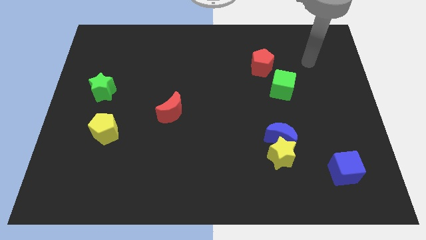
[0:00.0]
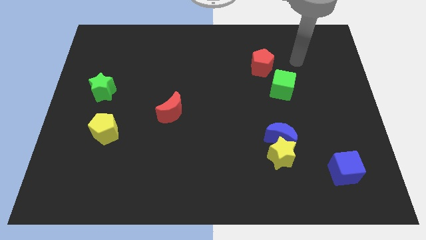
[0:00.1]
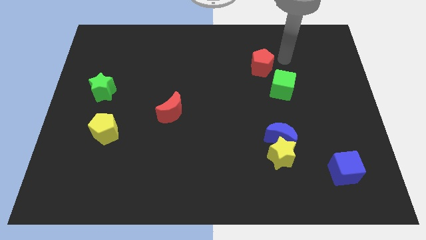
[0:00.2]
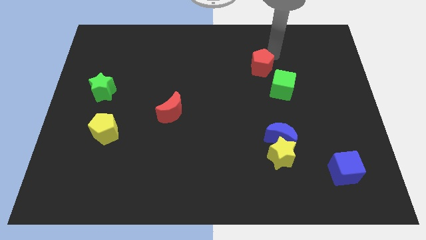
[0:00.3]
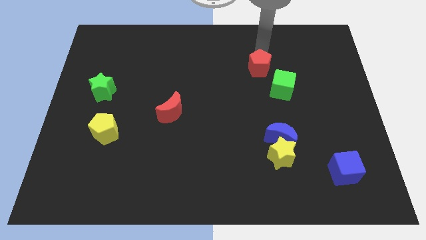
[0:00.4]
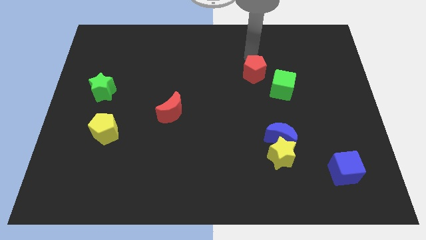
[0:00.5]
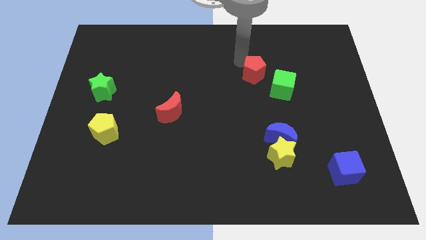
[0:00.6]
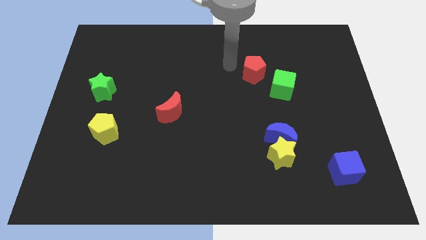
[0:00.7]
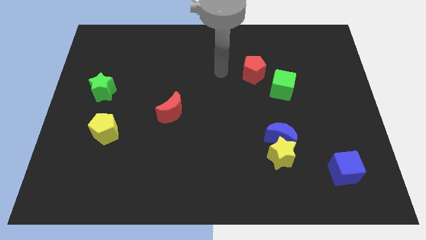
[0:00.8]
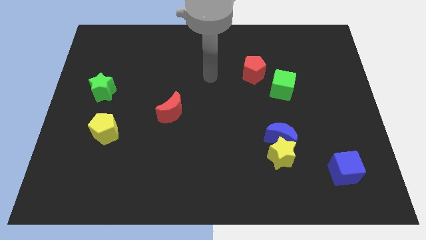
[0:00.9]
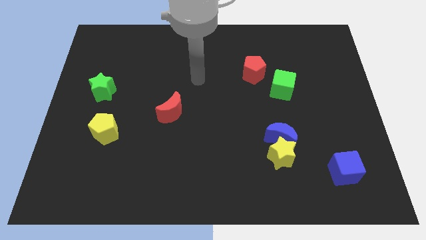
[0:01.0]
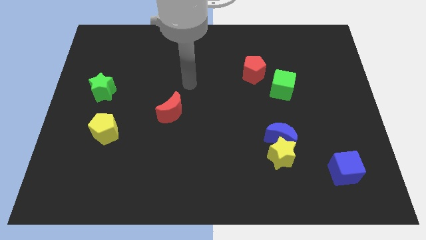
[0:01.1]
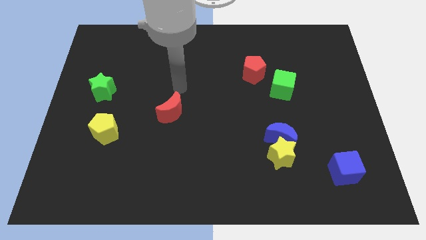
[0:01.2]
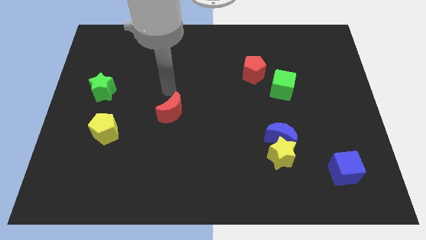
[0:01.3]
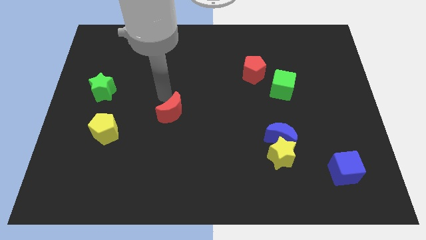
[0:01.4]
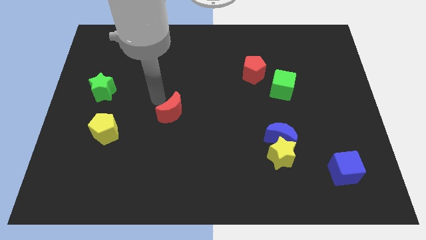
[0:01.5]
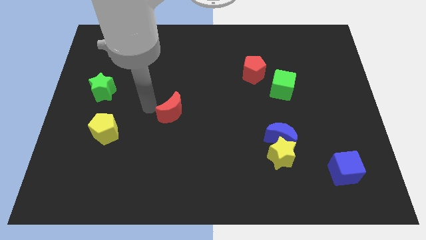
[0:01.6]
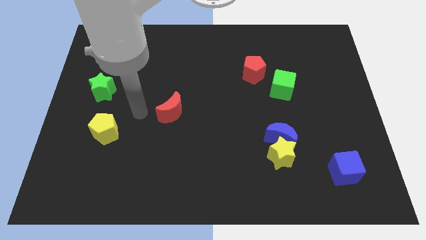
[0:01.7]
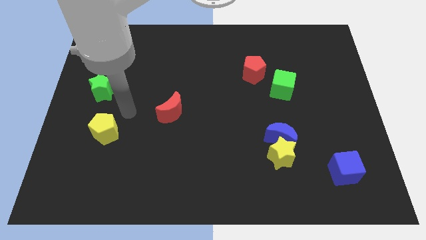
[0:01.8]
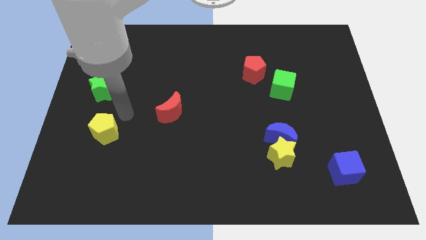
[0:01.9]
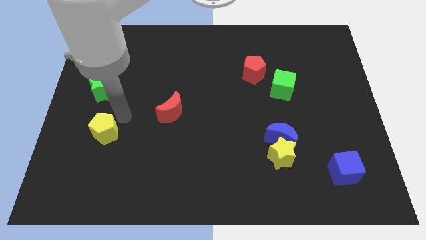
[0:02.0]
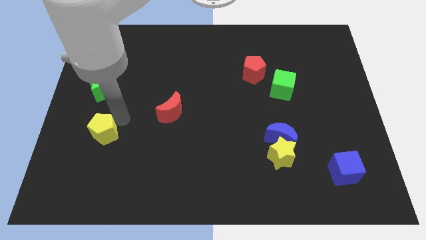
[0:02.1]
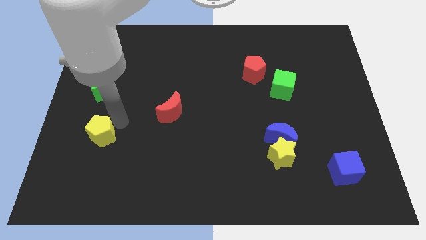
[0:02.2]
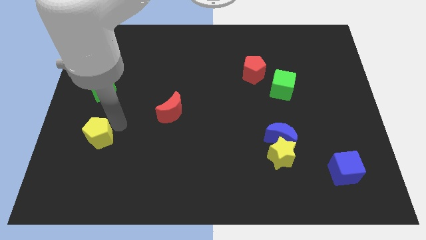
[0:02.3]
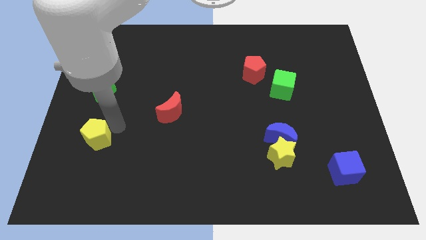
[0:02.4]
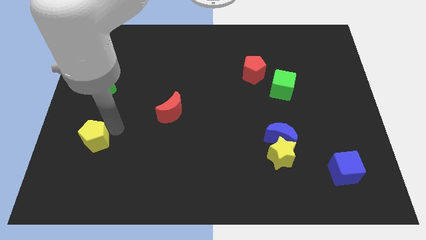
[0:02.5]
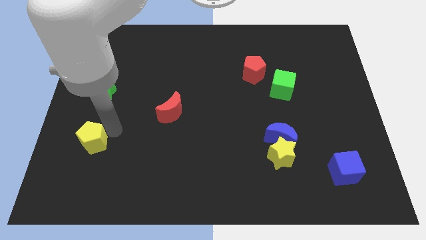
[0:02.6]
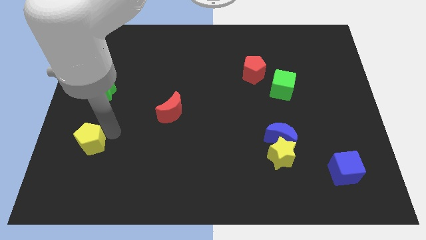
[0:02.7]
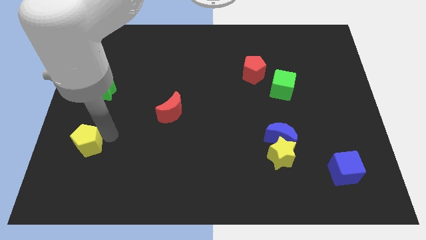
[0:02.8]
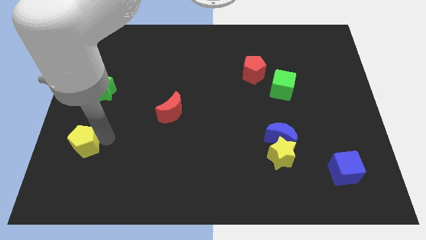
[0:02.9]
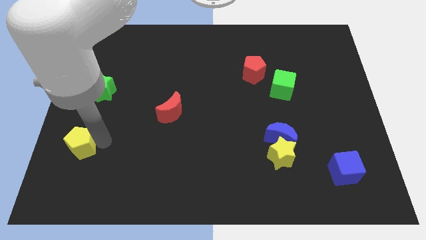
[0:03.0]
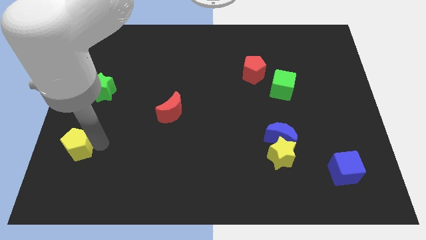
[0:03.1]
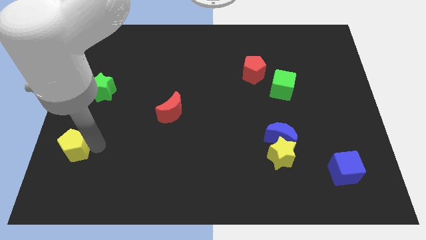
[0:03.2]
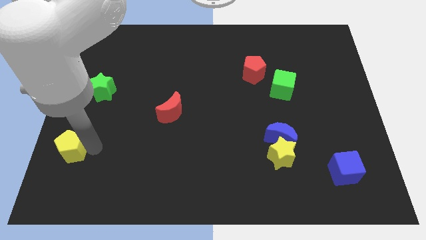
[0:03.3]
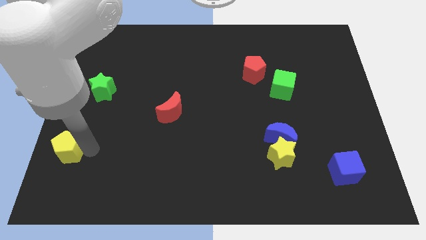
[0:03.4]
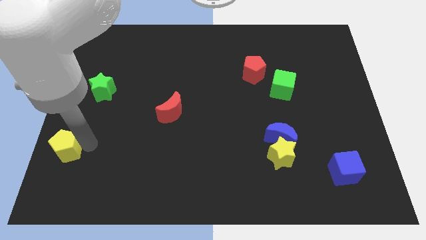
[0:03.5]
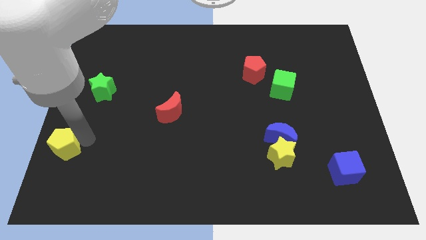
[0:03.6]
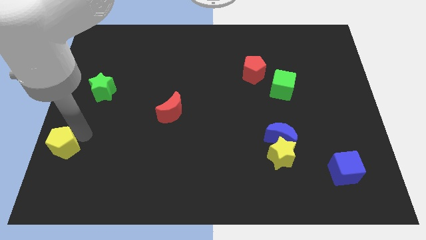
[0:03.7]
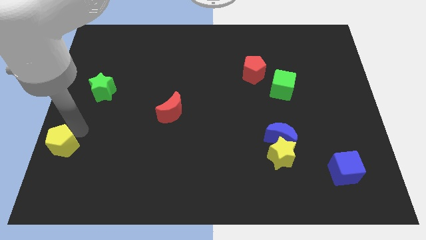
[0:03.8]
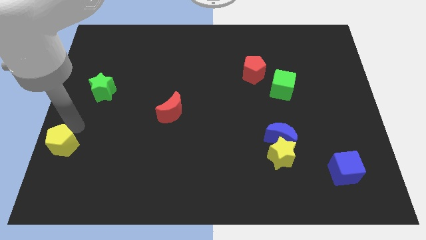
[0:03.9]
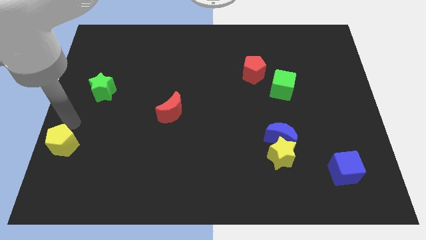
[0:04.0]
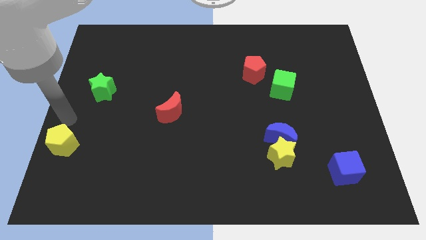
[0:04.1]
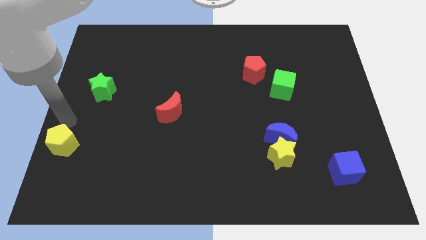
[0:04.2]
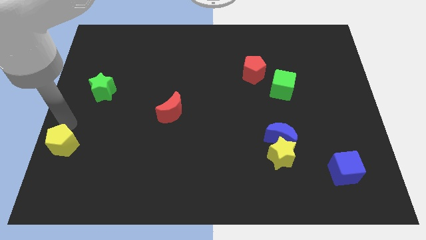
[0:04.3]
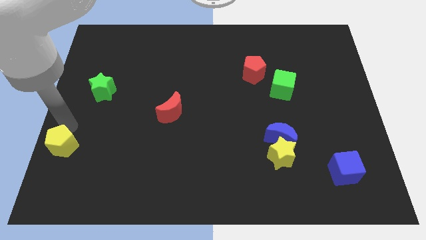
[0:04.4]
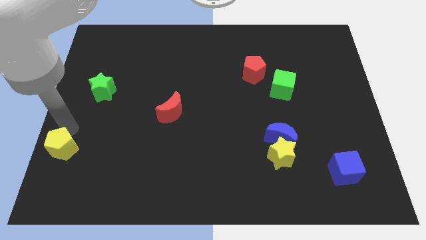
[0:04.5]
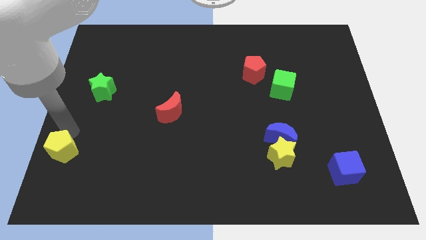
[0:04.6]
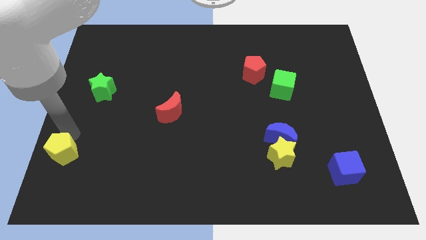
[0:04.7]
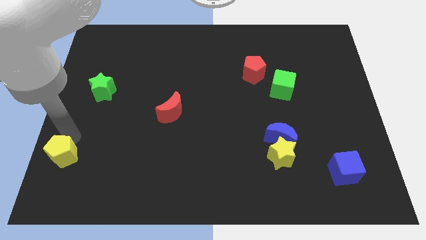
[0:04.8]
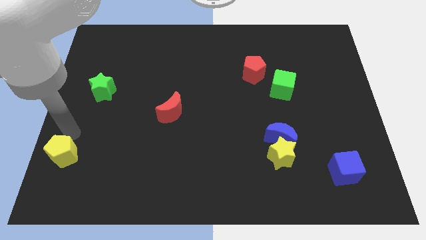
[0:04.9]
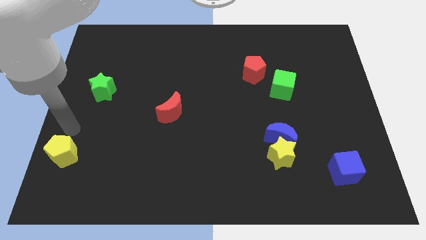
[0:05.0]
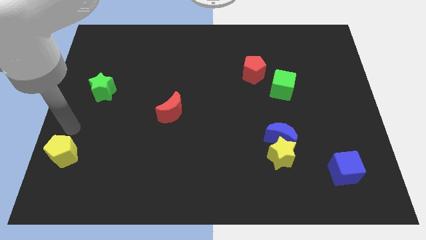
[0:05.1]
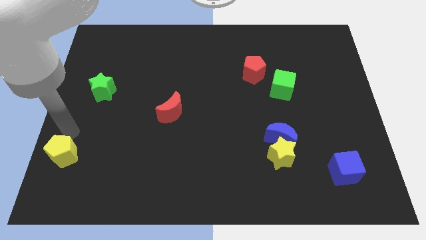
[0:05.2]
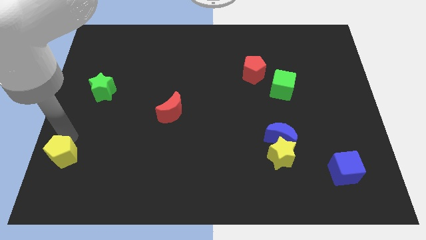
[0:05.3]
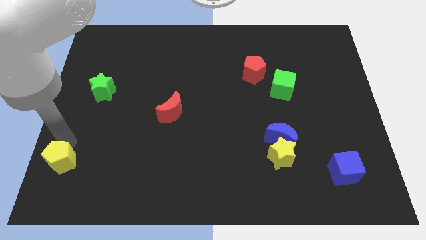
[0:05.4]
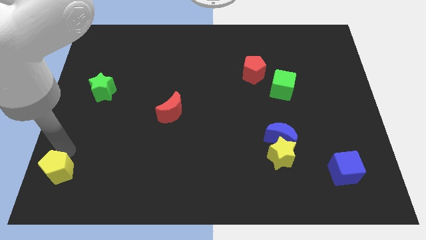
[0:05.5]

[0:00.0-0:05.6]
push the yellow pentagon to the bottom left of the board

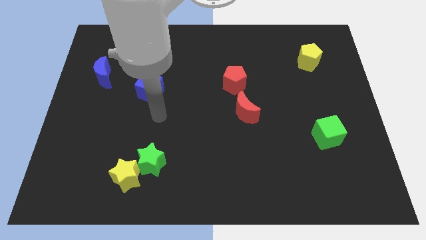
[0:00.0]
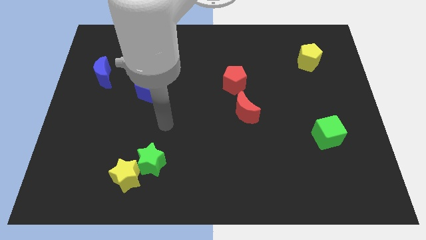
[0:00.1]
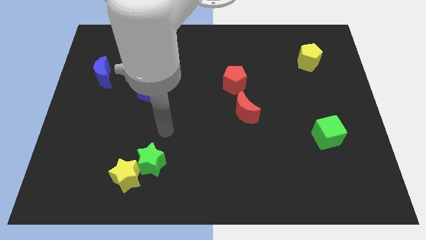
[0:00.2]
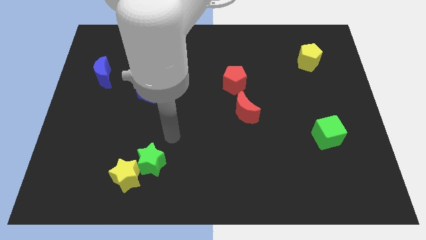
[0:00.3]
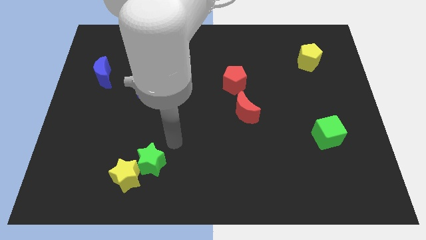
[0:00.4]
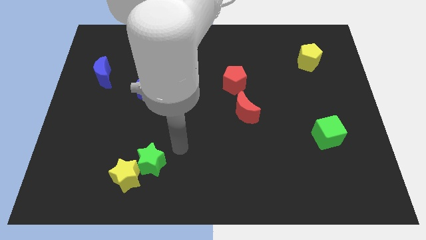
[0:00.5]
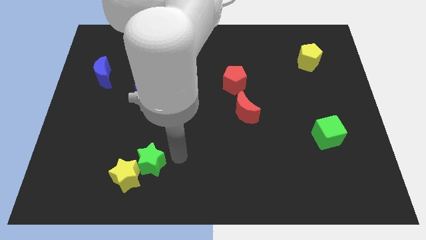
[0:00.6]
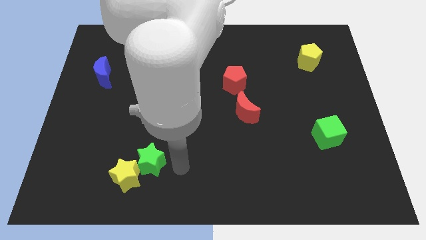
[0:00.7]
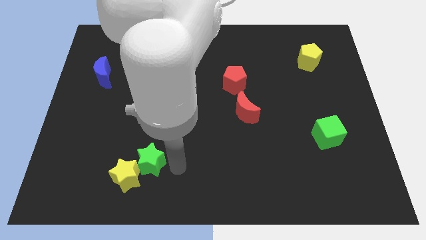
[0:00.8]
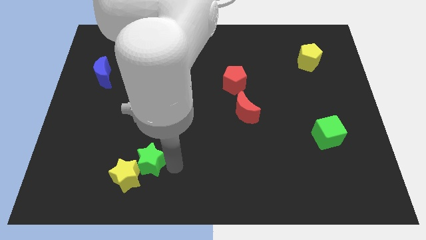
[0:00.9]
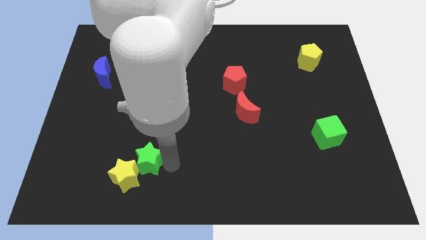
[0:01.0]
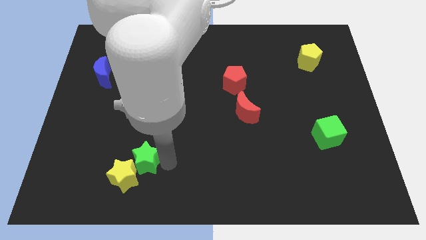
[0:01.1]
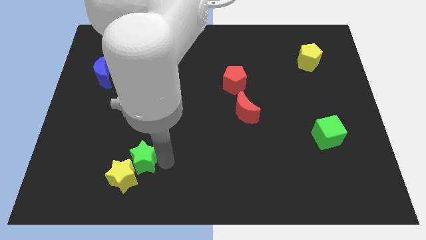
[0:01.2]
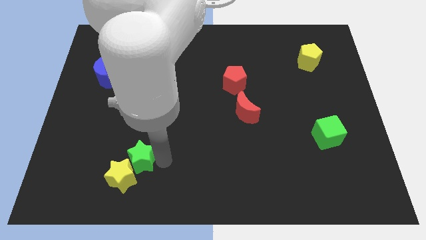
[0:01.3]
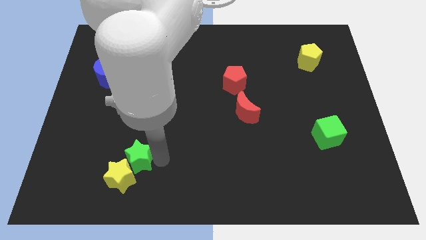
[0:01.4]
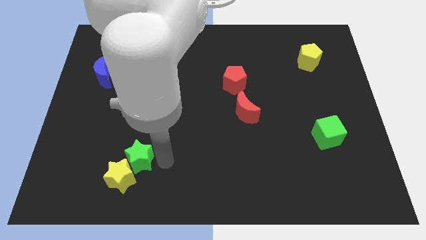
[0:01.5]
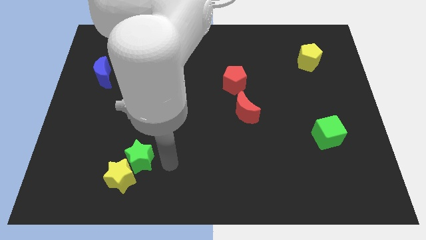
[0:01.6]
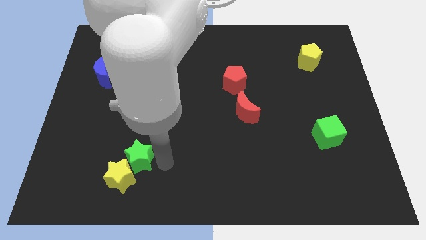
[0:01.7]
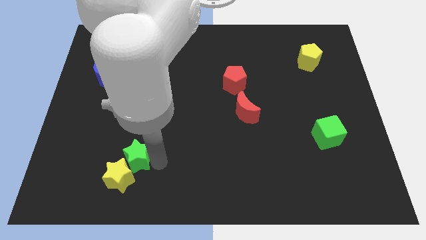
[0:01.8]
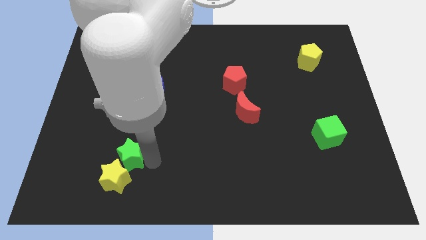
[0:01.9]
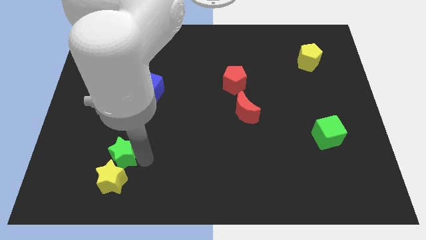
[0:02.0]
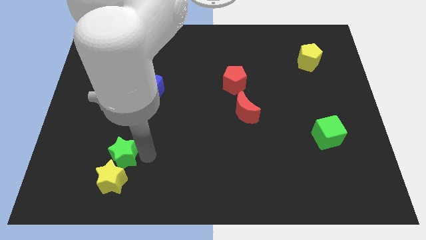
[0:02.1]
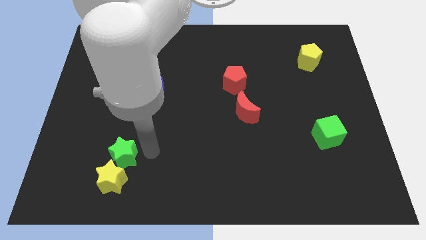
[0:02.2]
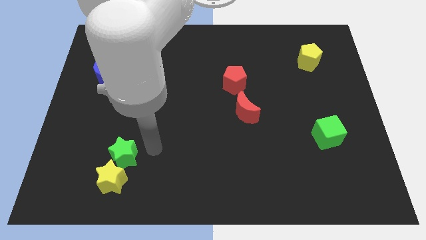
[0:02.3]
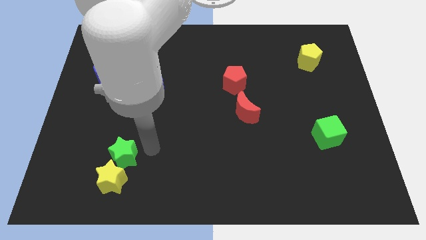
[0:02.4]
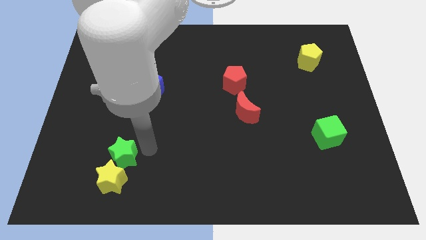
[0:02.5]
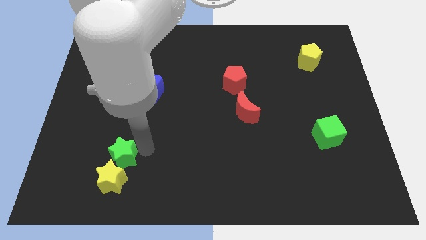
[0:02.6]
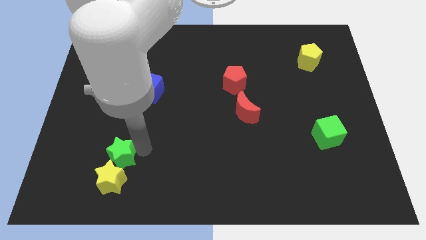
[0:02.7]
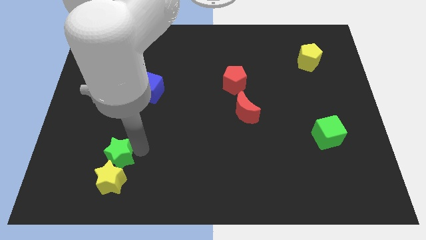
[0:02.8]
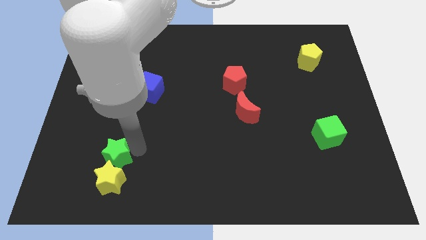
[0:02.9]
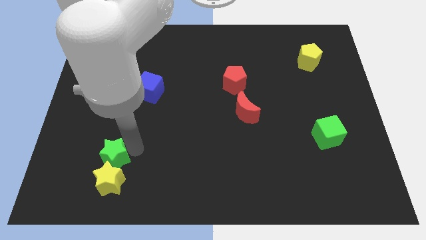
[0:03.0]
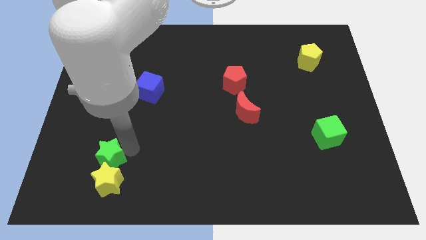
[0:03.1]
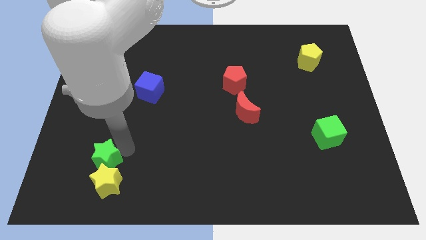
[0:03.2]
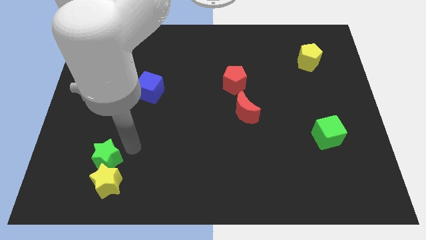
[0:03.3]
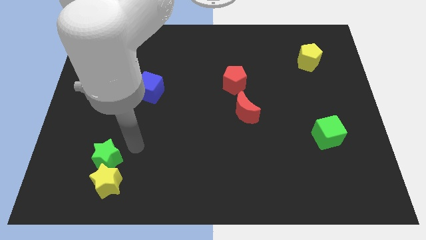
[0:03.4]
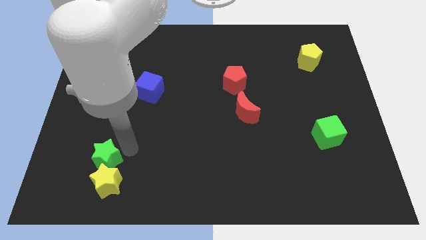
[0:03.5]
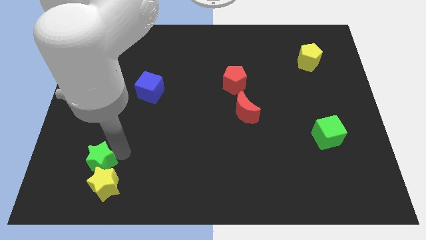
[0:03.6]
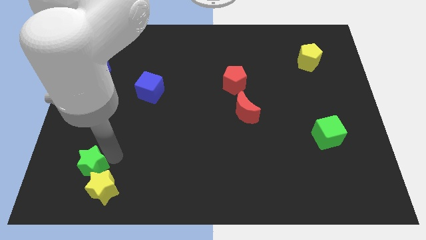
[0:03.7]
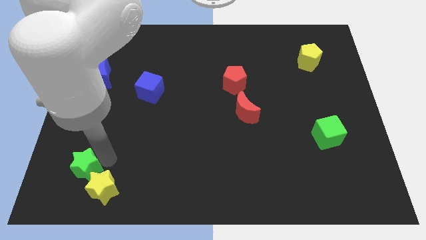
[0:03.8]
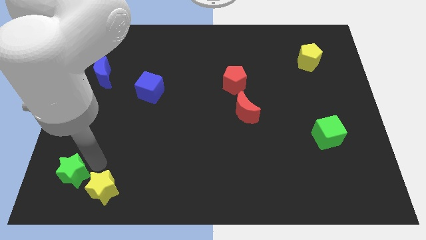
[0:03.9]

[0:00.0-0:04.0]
slide the green star to the bottom left
